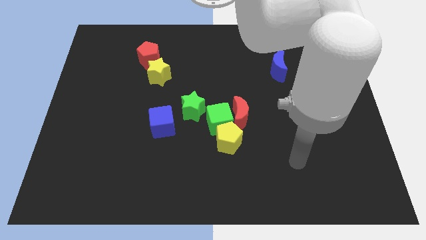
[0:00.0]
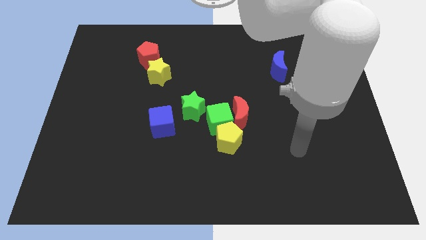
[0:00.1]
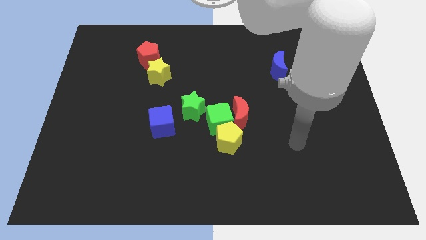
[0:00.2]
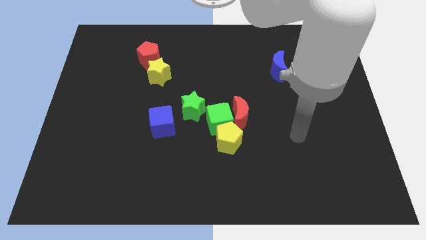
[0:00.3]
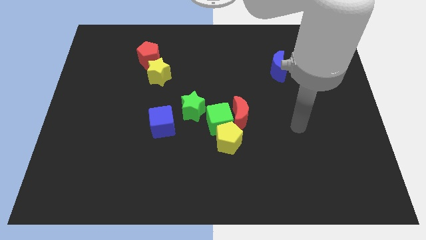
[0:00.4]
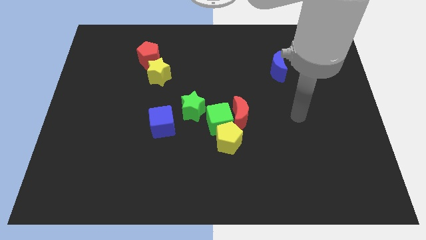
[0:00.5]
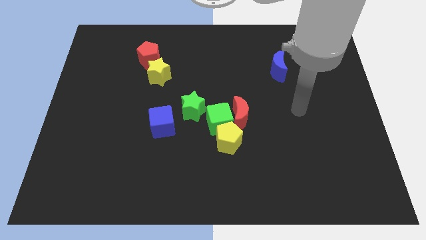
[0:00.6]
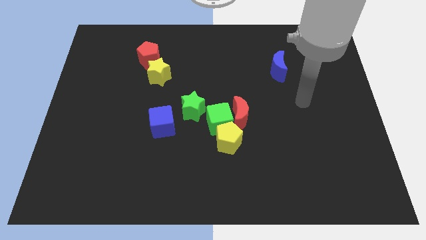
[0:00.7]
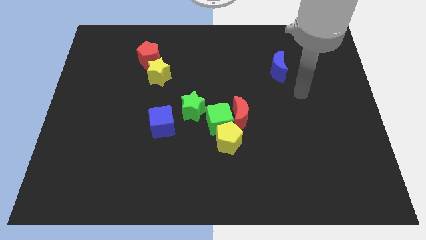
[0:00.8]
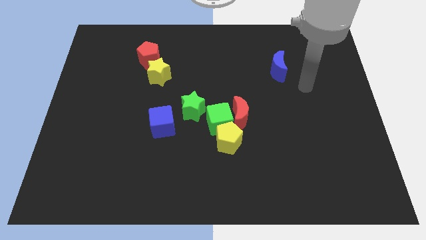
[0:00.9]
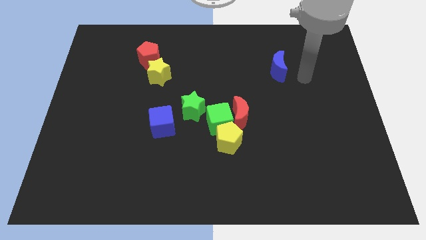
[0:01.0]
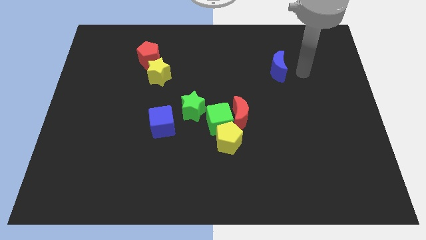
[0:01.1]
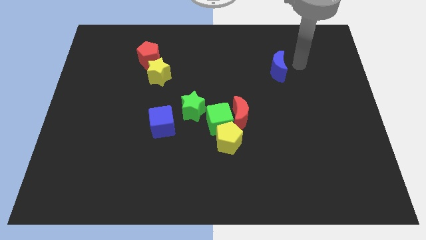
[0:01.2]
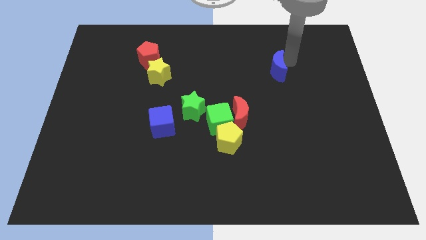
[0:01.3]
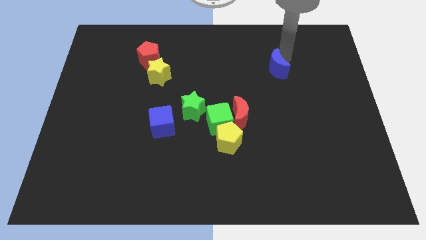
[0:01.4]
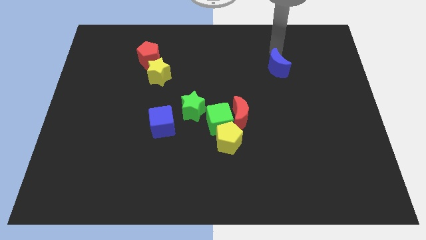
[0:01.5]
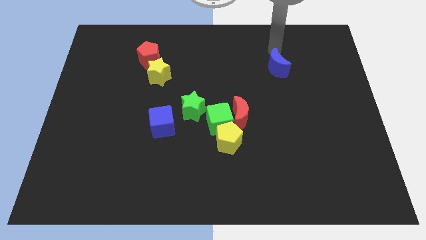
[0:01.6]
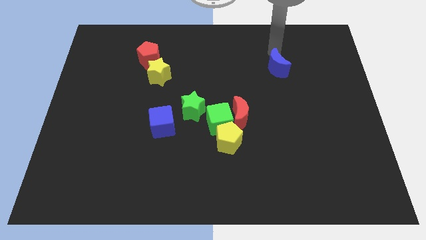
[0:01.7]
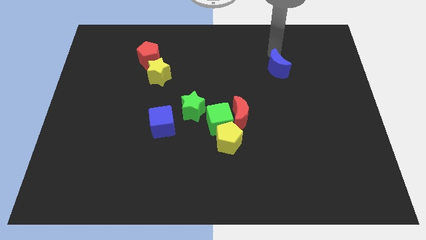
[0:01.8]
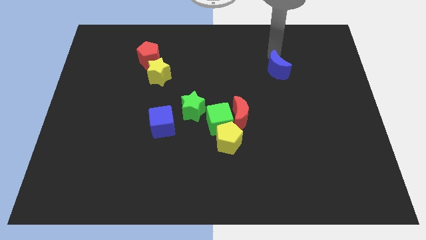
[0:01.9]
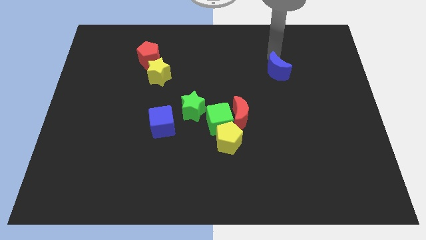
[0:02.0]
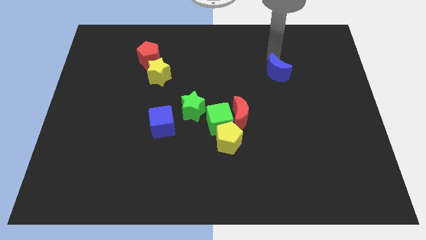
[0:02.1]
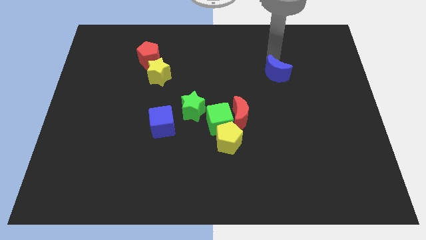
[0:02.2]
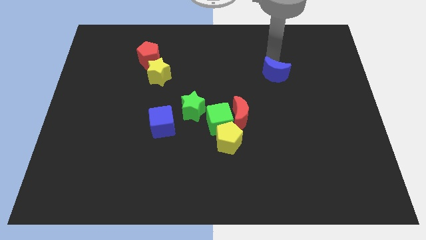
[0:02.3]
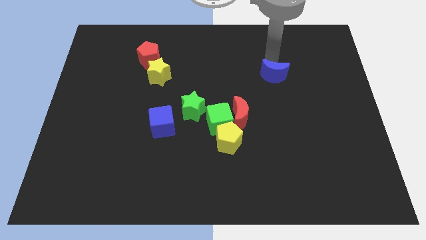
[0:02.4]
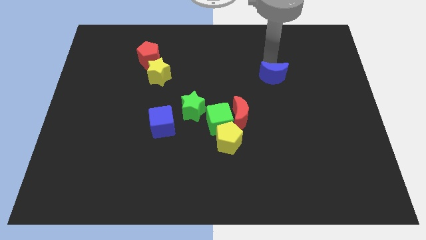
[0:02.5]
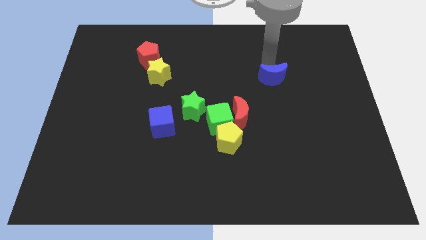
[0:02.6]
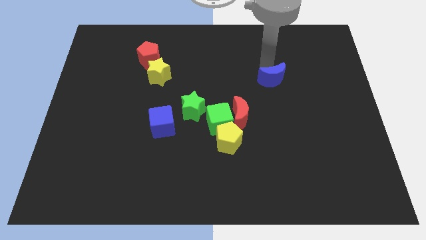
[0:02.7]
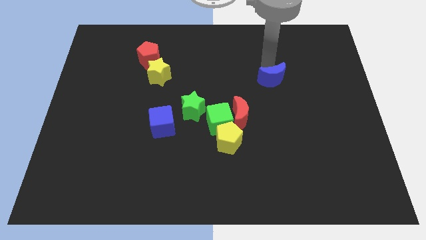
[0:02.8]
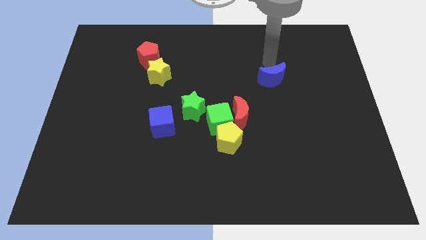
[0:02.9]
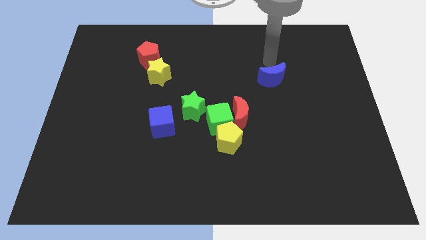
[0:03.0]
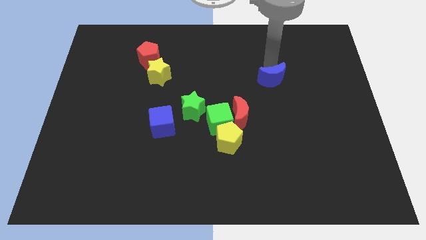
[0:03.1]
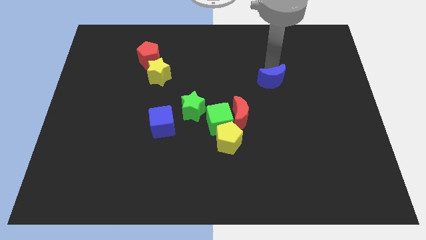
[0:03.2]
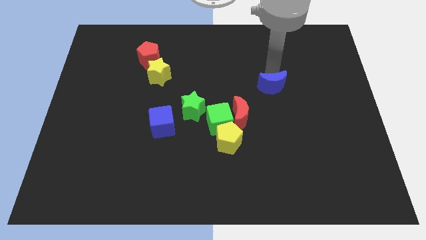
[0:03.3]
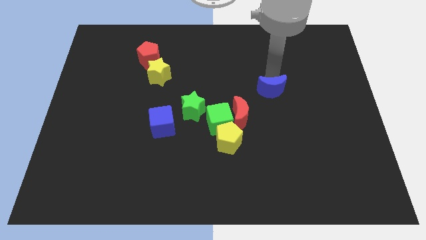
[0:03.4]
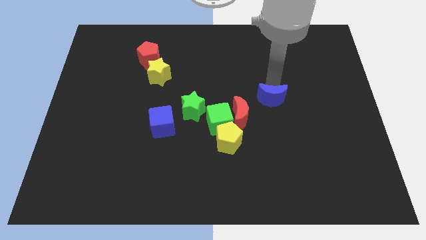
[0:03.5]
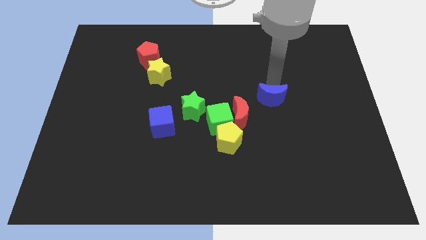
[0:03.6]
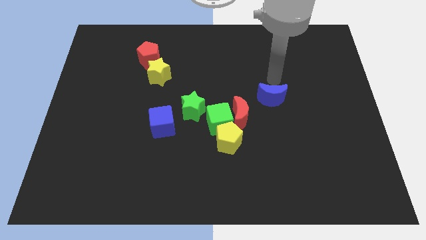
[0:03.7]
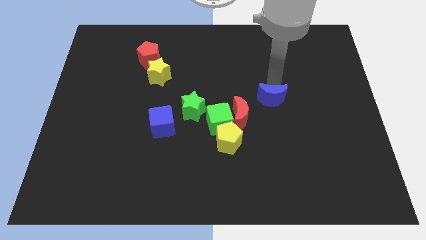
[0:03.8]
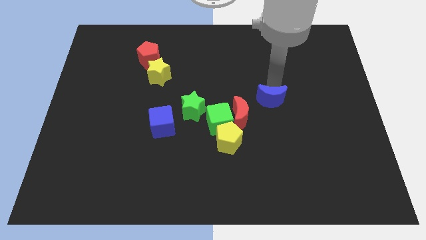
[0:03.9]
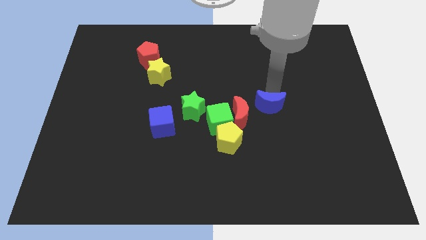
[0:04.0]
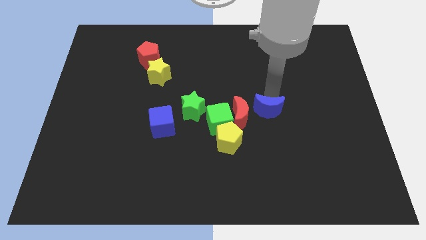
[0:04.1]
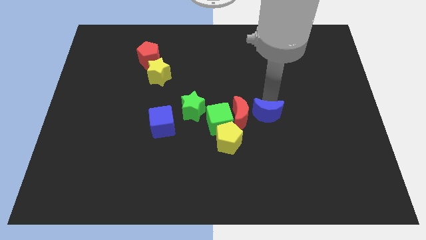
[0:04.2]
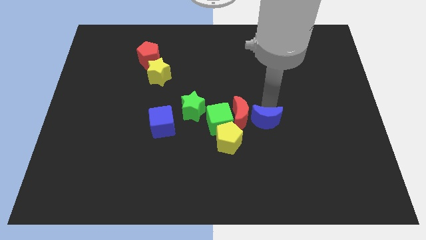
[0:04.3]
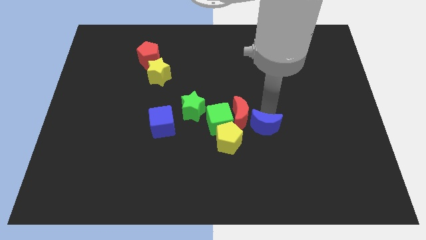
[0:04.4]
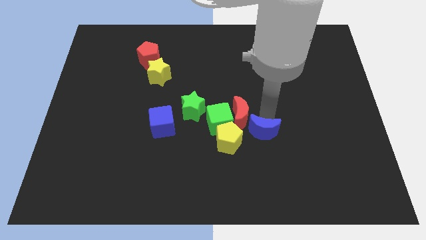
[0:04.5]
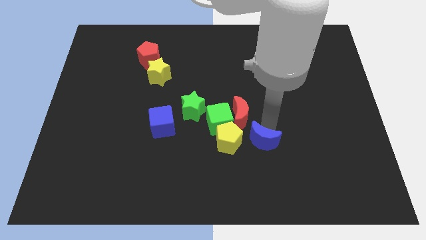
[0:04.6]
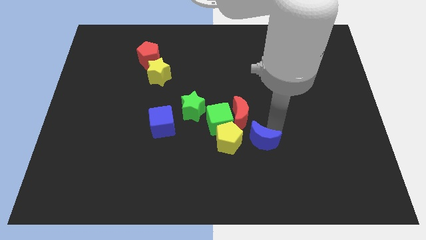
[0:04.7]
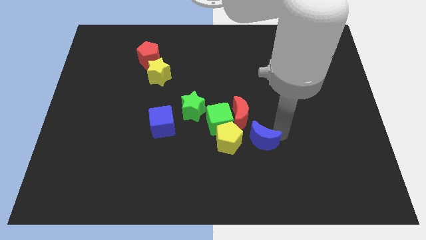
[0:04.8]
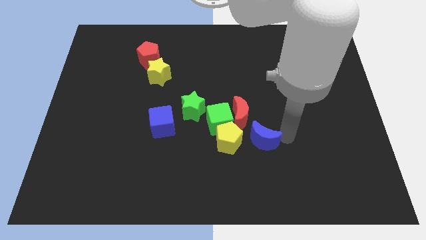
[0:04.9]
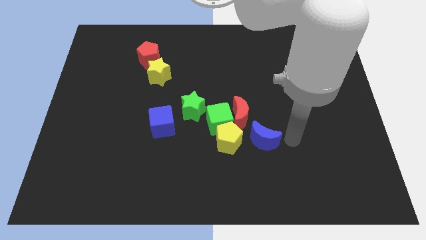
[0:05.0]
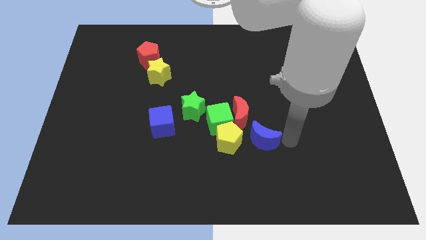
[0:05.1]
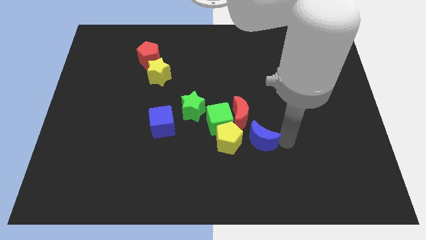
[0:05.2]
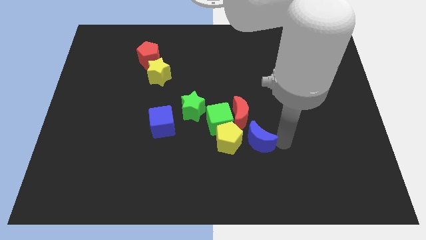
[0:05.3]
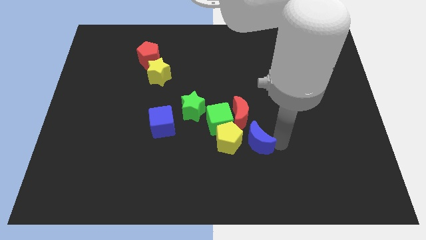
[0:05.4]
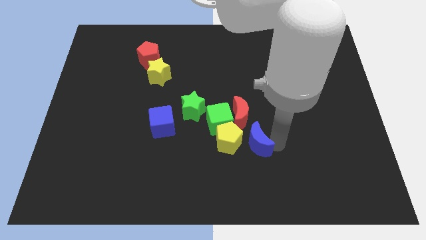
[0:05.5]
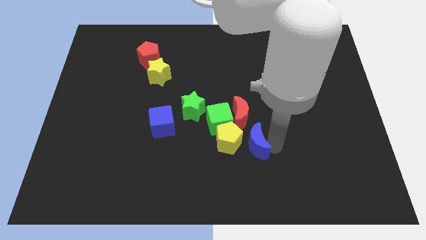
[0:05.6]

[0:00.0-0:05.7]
push the blue moon towards the yellow pentagon

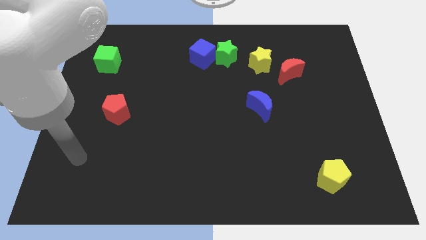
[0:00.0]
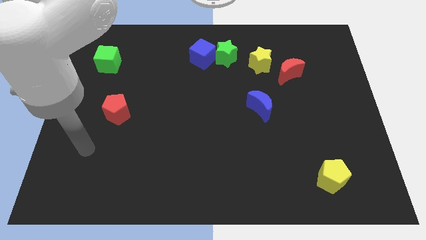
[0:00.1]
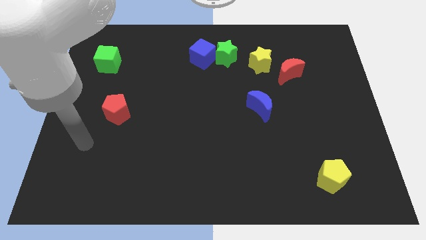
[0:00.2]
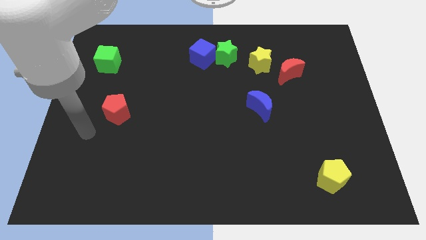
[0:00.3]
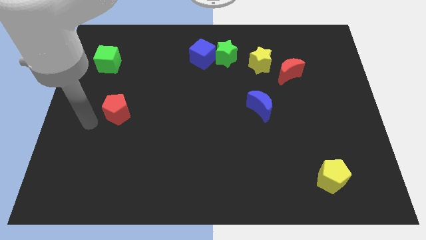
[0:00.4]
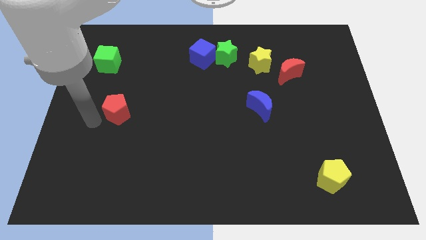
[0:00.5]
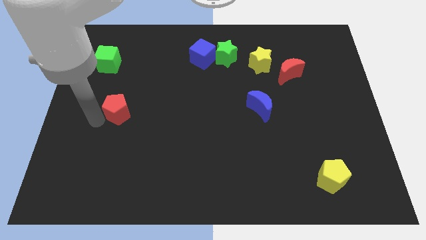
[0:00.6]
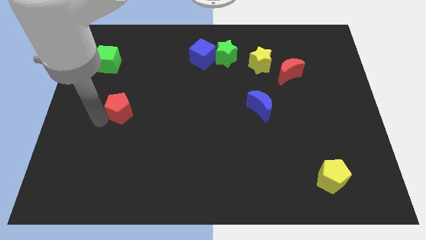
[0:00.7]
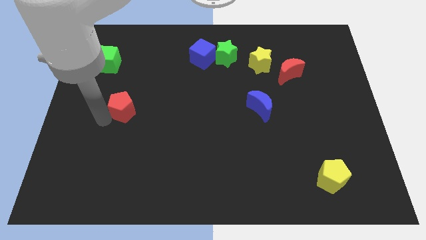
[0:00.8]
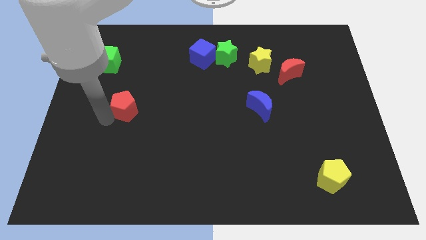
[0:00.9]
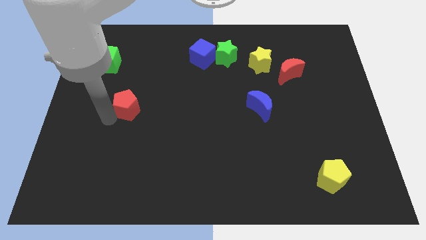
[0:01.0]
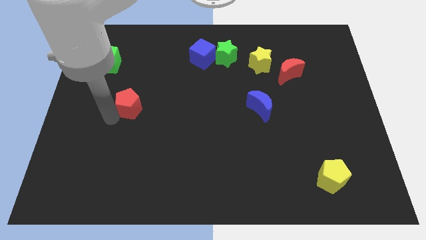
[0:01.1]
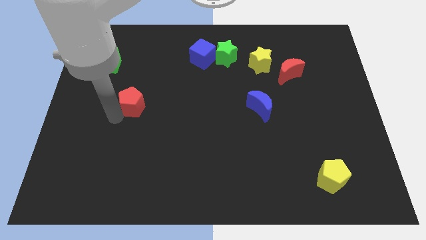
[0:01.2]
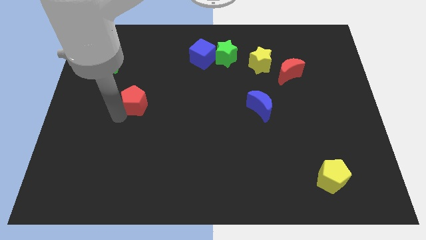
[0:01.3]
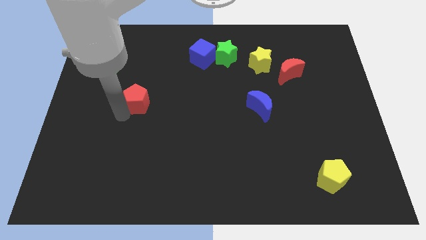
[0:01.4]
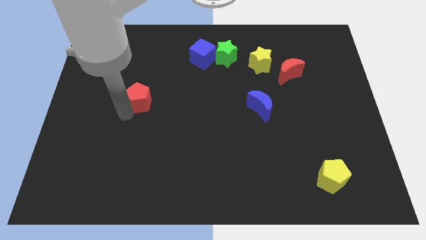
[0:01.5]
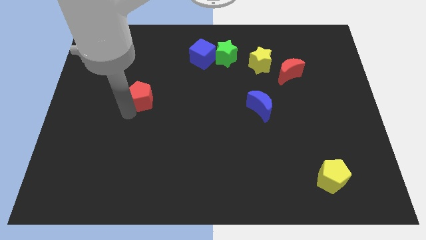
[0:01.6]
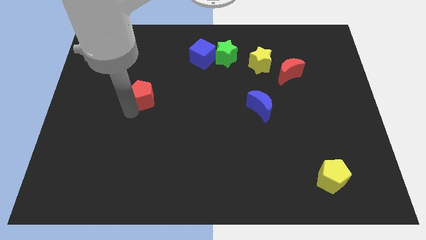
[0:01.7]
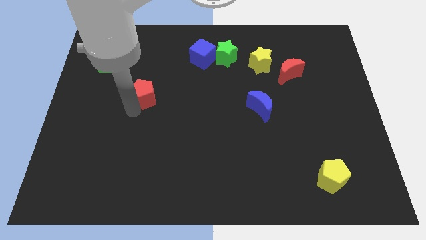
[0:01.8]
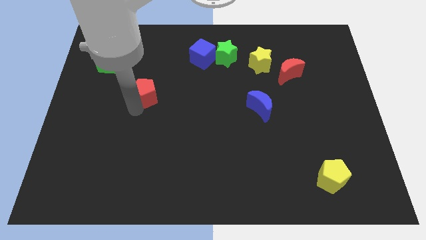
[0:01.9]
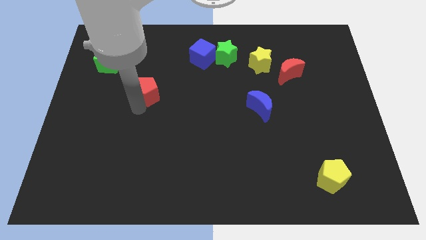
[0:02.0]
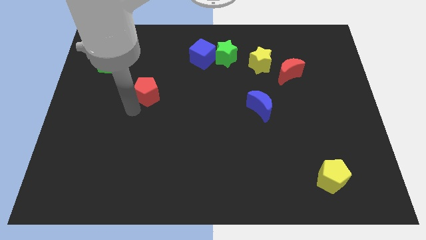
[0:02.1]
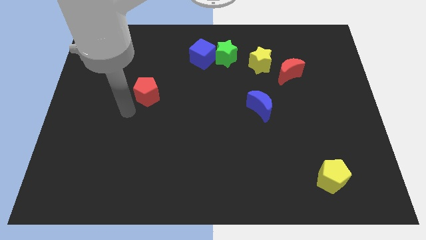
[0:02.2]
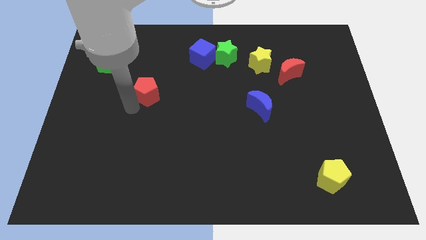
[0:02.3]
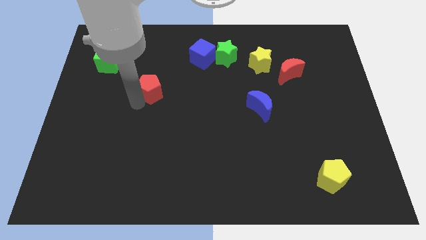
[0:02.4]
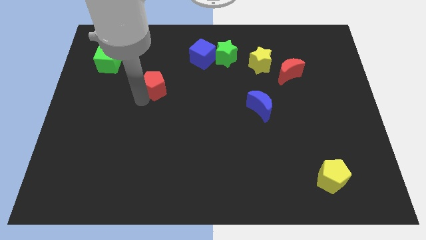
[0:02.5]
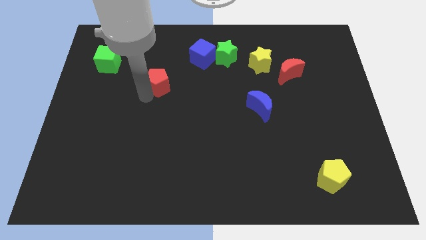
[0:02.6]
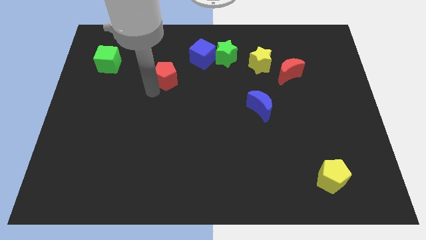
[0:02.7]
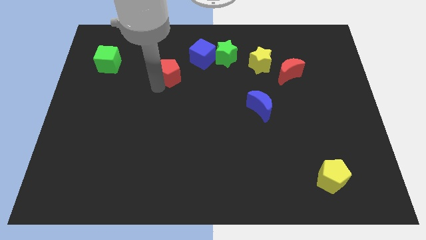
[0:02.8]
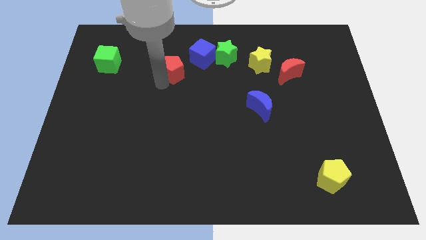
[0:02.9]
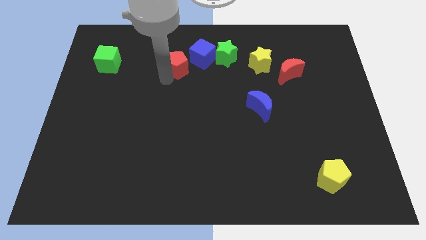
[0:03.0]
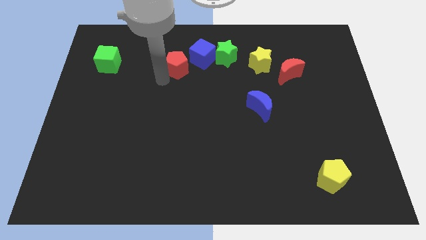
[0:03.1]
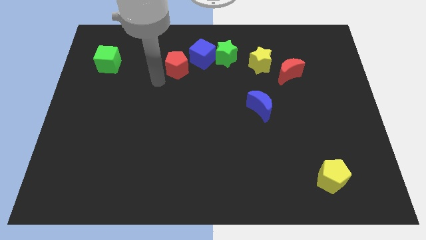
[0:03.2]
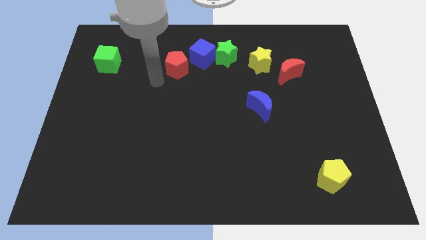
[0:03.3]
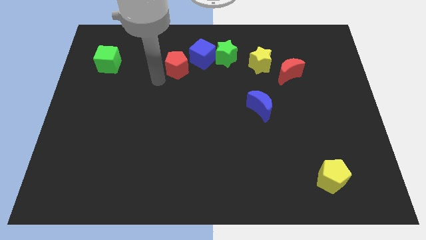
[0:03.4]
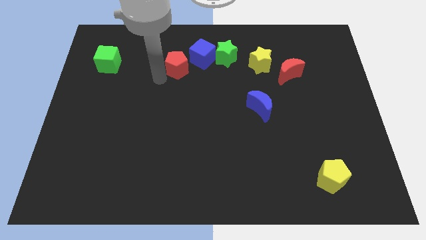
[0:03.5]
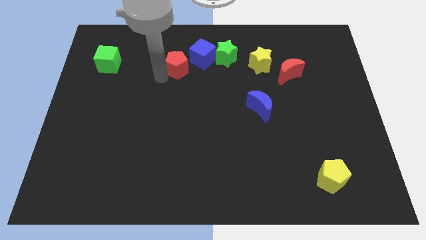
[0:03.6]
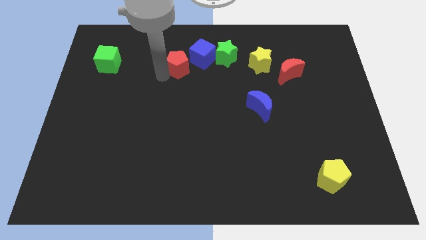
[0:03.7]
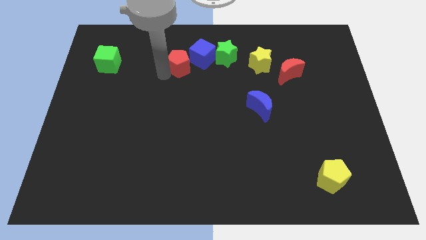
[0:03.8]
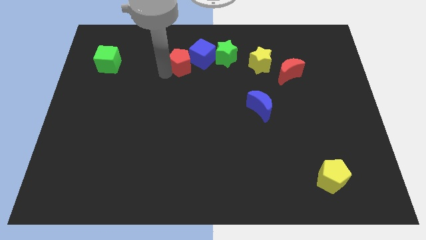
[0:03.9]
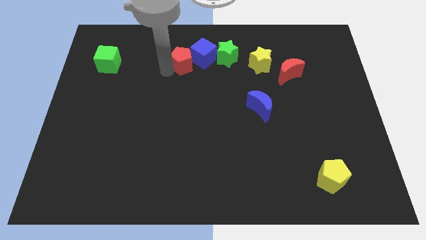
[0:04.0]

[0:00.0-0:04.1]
slide the red pentagon close to the blue cube
